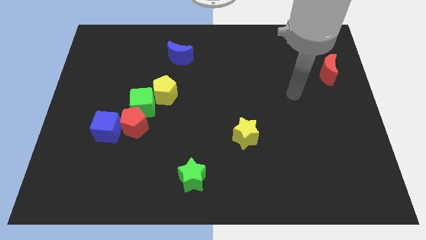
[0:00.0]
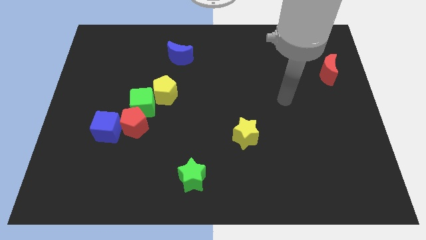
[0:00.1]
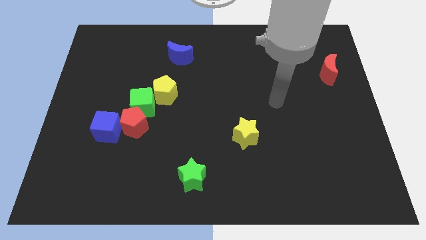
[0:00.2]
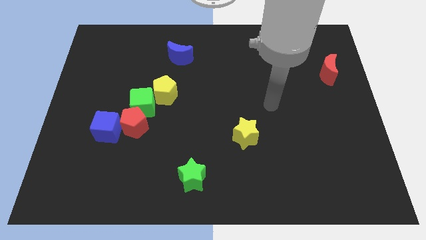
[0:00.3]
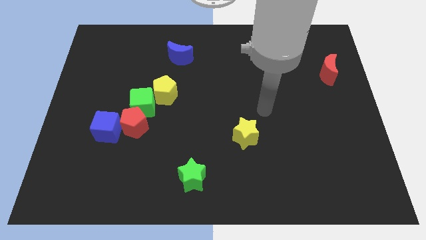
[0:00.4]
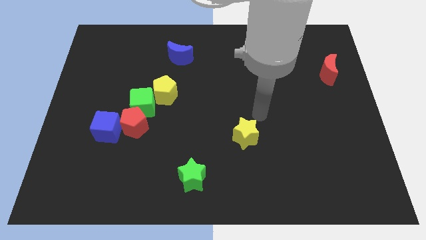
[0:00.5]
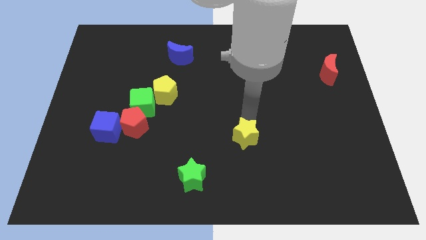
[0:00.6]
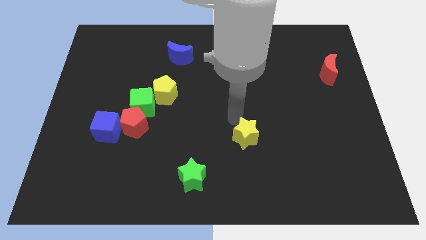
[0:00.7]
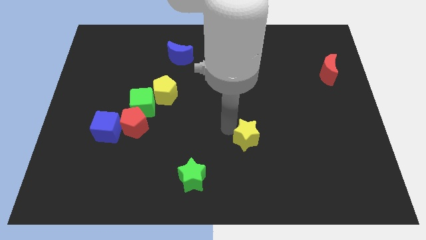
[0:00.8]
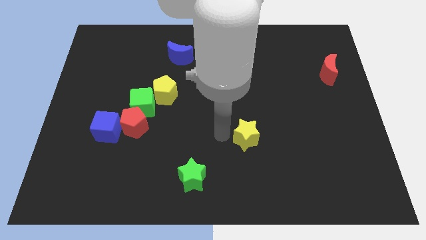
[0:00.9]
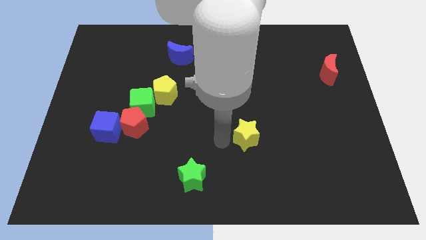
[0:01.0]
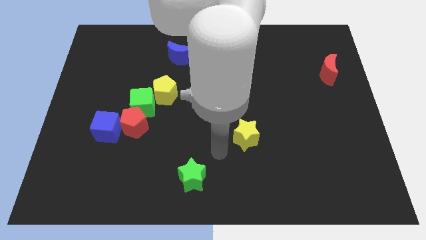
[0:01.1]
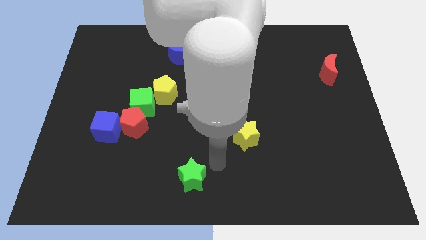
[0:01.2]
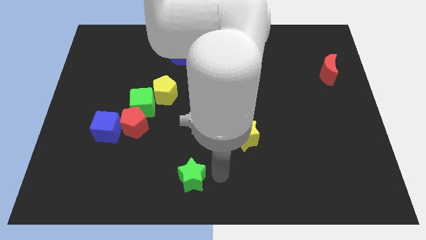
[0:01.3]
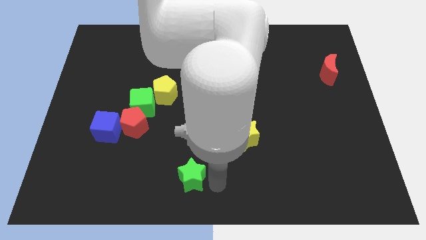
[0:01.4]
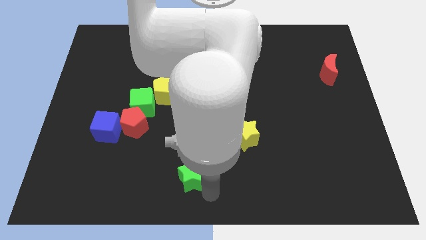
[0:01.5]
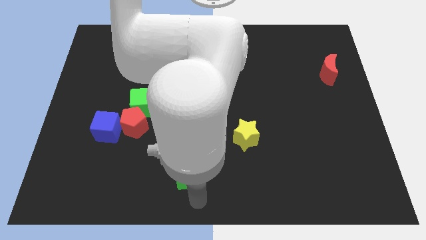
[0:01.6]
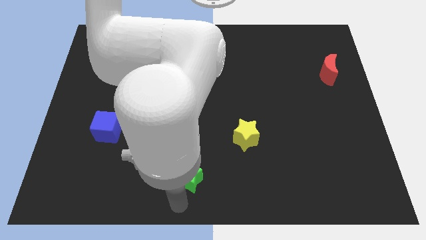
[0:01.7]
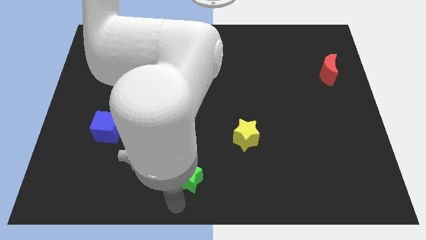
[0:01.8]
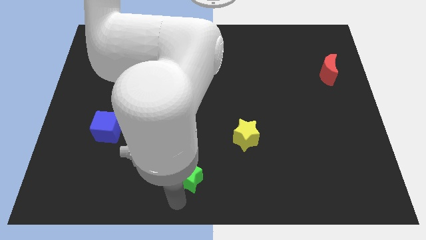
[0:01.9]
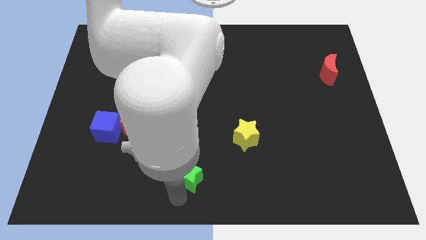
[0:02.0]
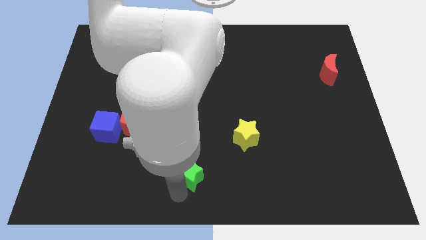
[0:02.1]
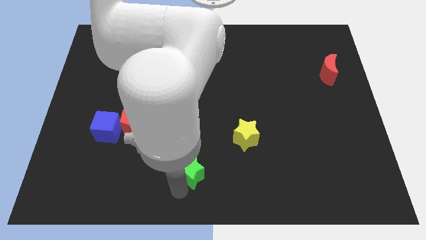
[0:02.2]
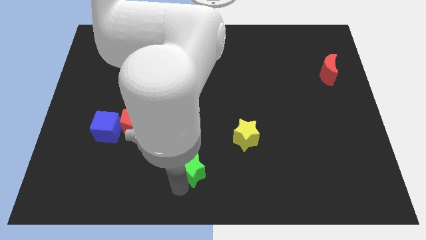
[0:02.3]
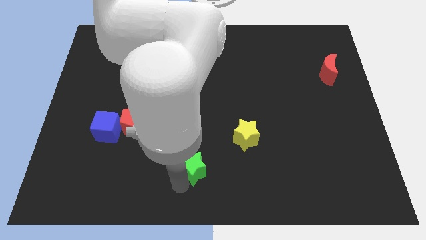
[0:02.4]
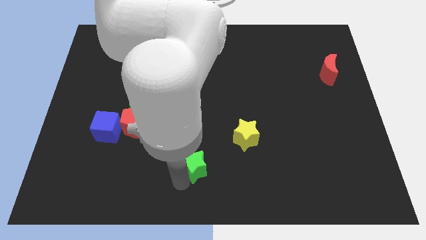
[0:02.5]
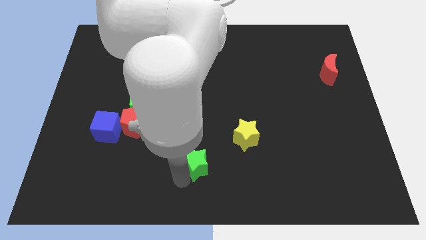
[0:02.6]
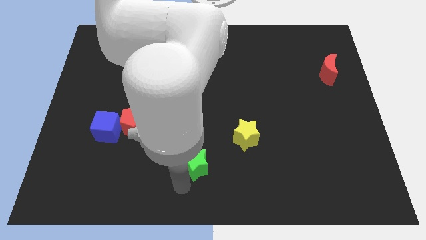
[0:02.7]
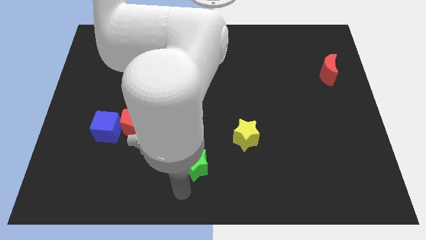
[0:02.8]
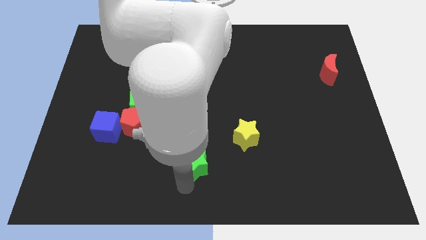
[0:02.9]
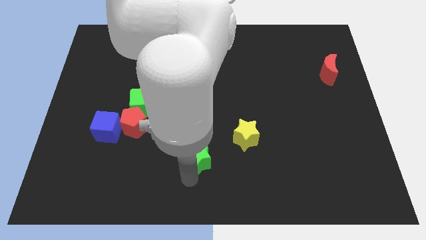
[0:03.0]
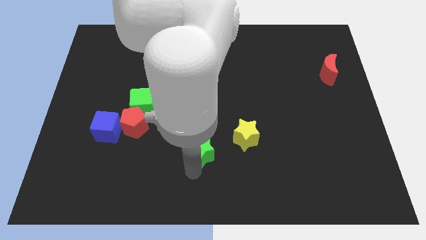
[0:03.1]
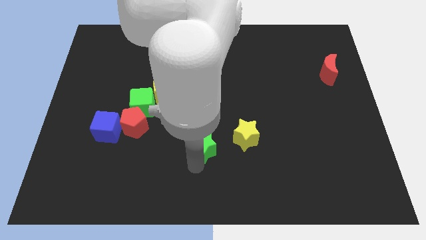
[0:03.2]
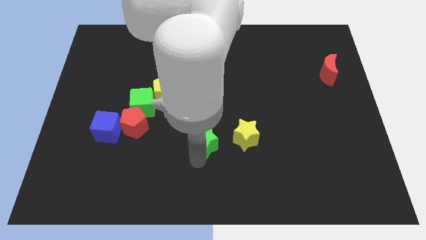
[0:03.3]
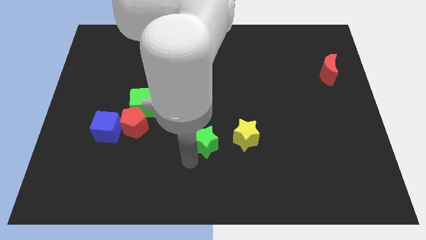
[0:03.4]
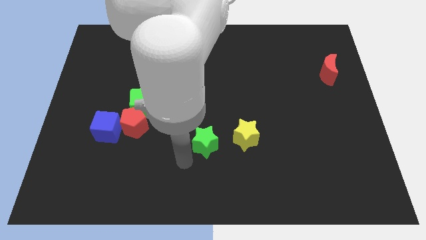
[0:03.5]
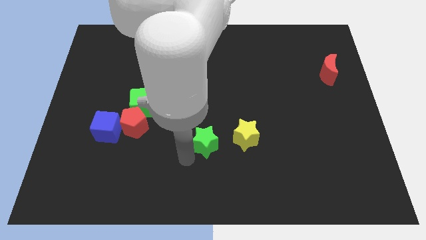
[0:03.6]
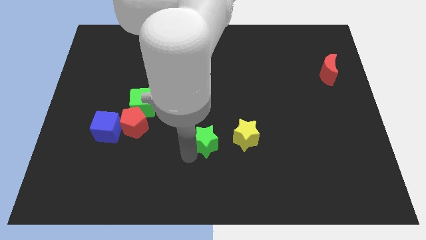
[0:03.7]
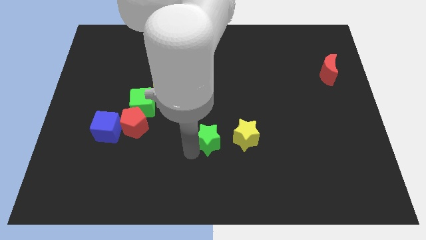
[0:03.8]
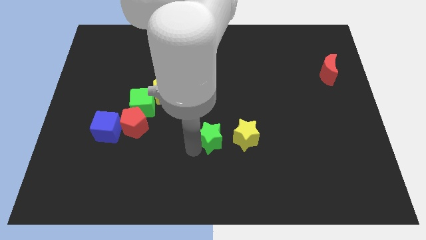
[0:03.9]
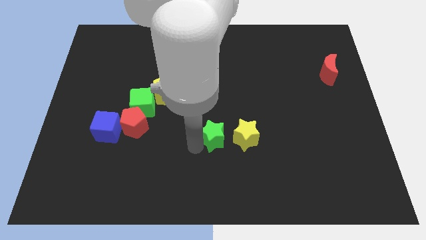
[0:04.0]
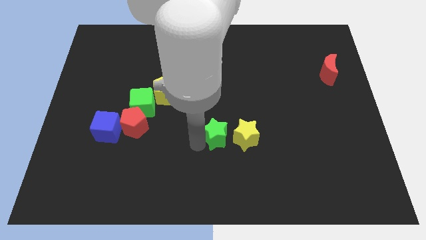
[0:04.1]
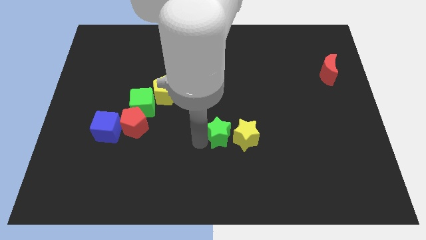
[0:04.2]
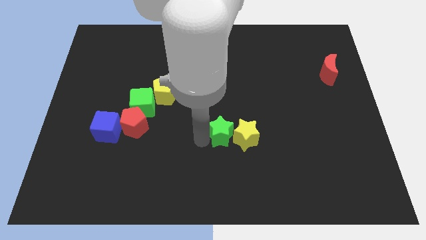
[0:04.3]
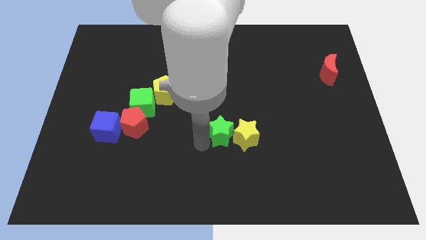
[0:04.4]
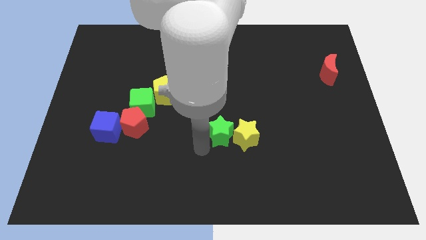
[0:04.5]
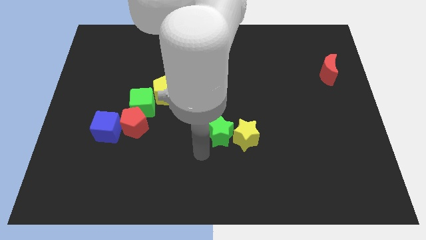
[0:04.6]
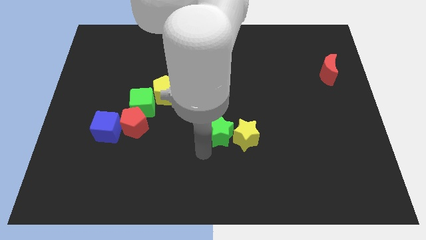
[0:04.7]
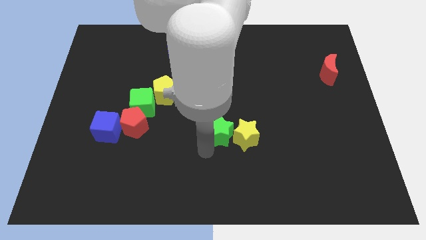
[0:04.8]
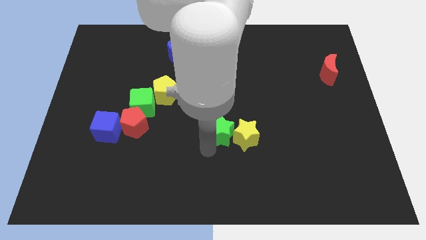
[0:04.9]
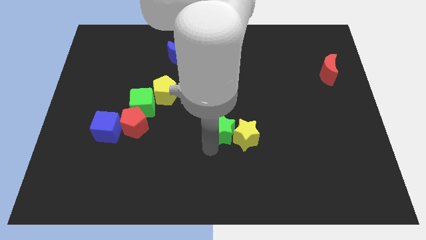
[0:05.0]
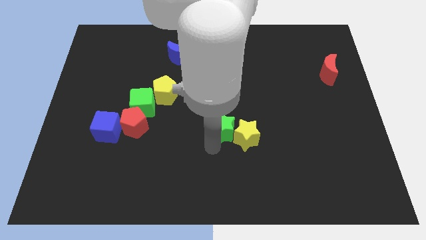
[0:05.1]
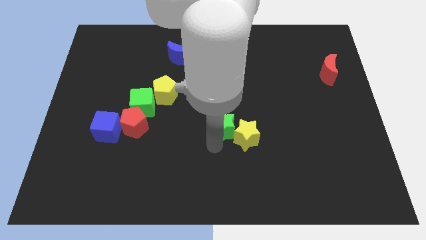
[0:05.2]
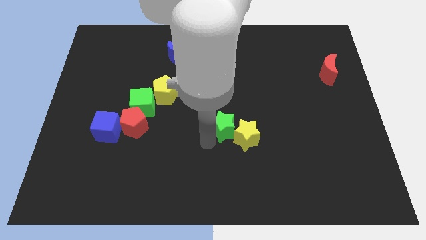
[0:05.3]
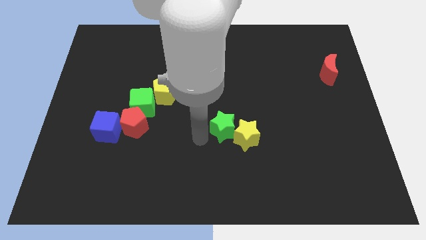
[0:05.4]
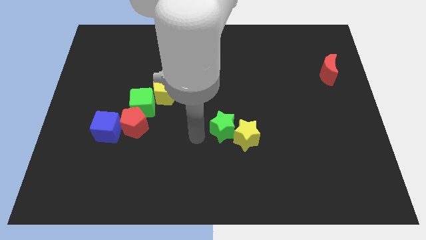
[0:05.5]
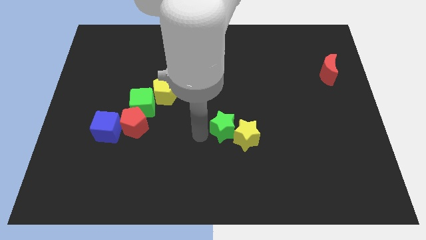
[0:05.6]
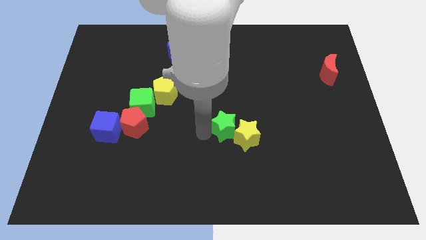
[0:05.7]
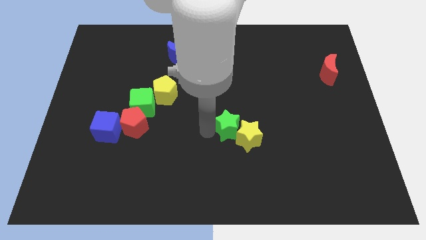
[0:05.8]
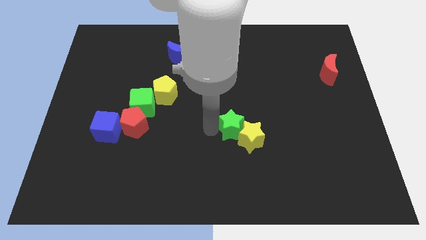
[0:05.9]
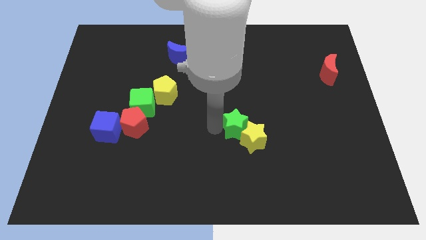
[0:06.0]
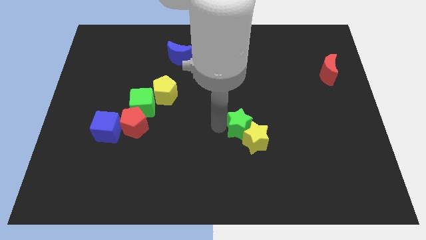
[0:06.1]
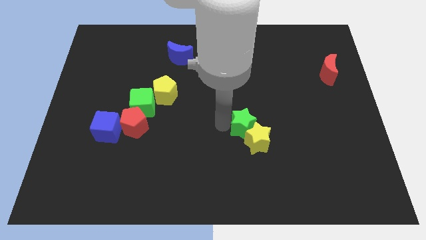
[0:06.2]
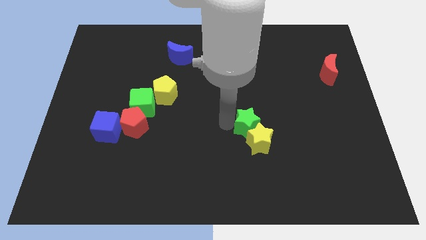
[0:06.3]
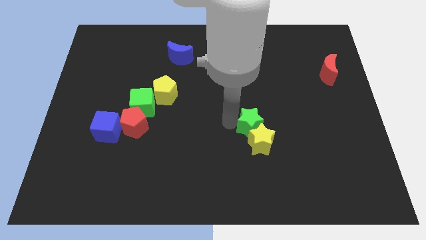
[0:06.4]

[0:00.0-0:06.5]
slide the green star diagonally up and to the right of the yellow star

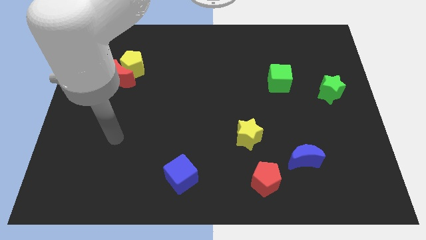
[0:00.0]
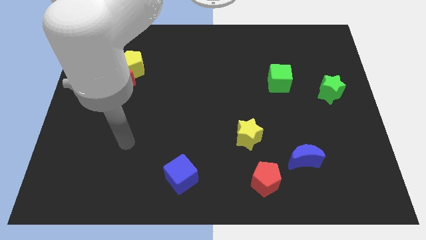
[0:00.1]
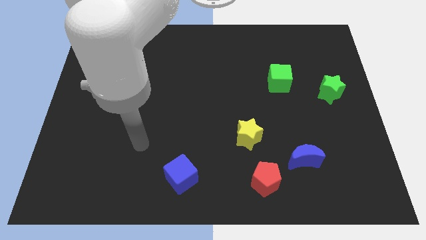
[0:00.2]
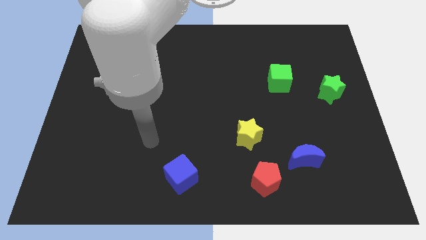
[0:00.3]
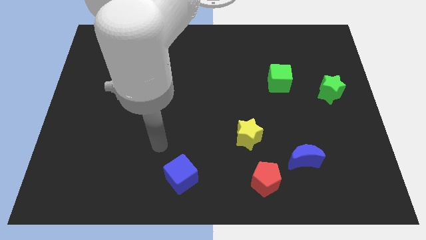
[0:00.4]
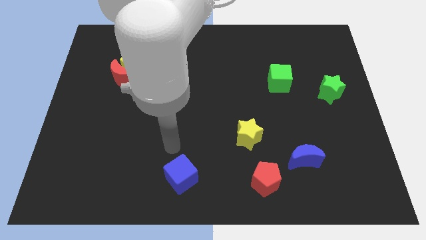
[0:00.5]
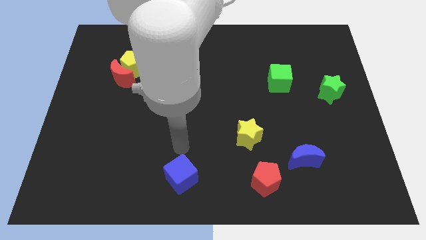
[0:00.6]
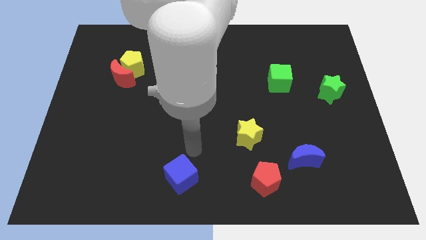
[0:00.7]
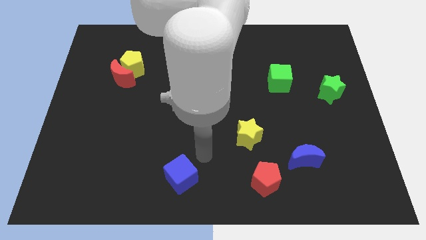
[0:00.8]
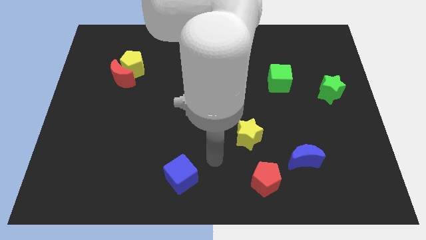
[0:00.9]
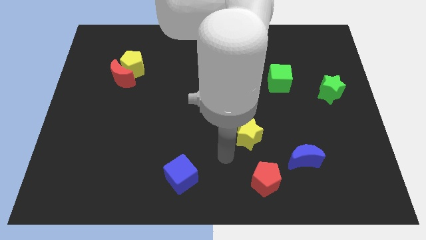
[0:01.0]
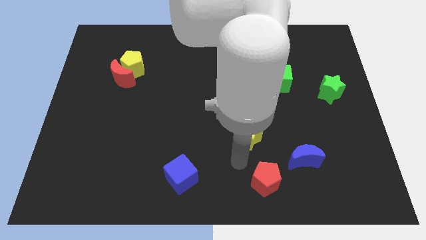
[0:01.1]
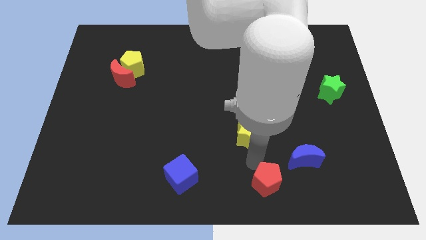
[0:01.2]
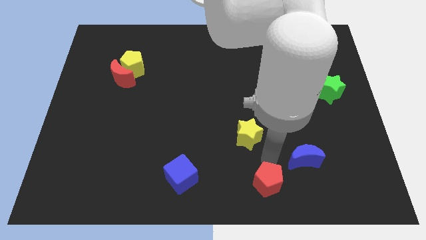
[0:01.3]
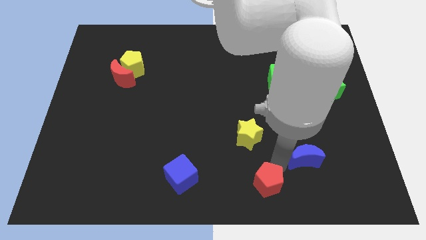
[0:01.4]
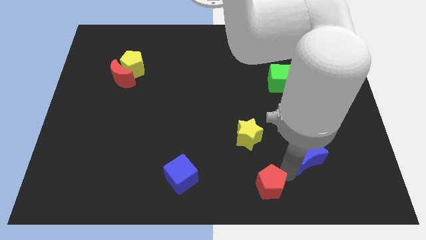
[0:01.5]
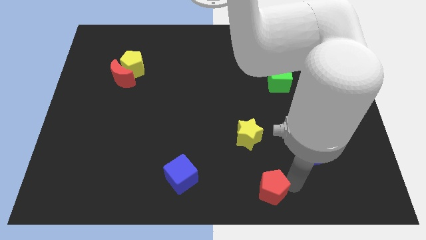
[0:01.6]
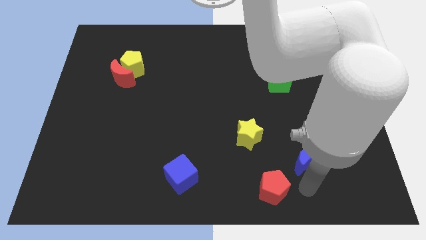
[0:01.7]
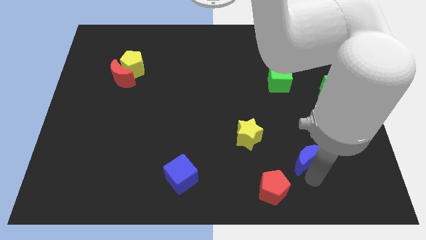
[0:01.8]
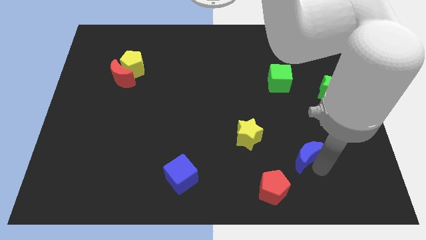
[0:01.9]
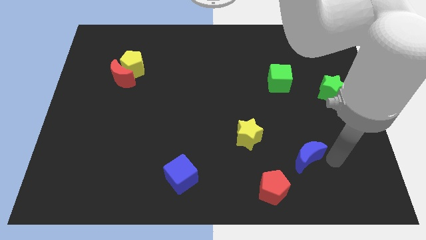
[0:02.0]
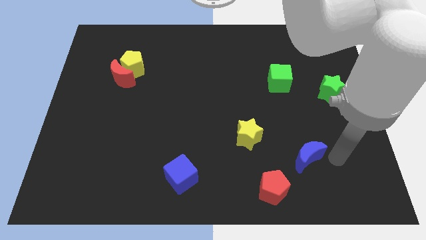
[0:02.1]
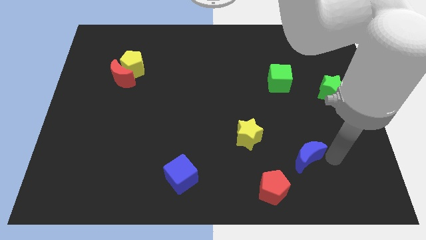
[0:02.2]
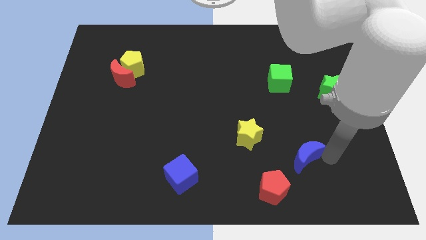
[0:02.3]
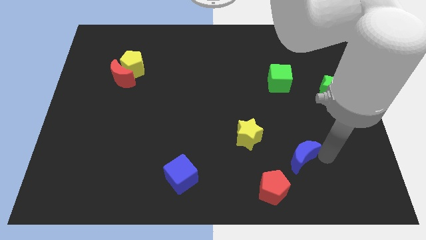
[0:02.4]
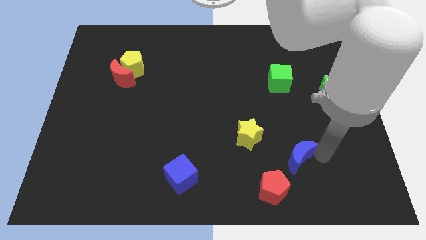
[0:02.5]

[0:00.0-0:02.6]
put the blue moon diagonally down and to the right of the yellow star
